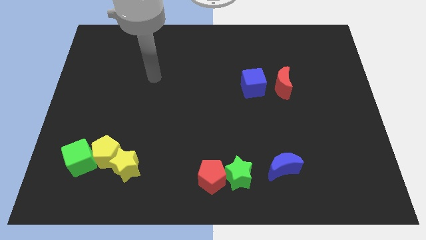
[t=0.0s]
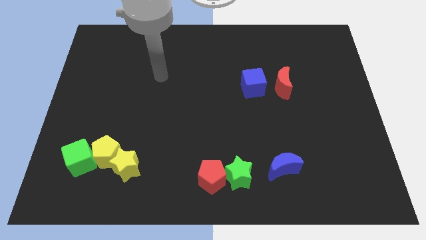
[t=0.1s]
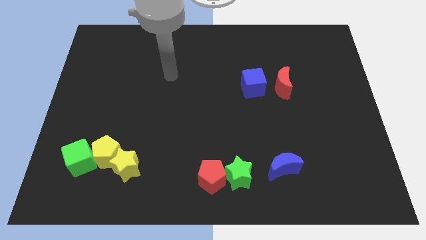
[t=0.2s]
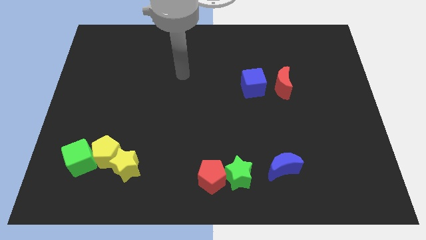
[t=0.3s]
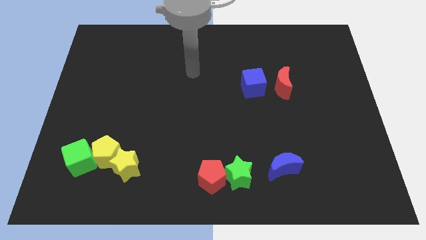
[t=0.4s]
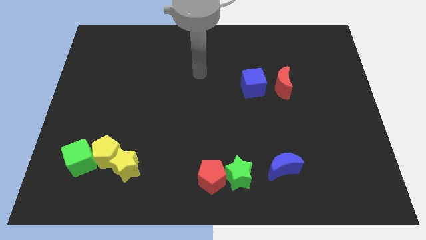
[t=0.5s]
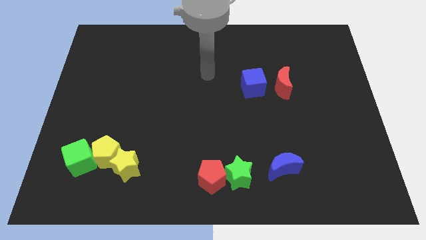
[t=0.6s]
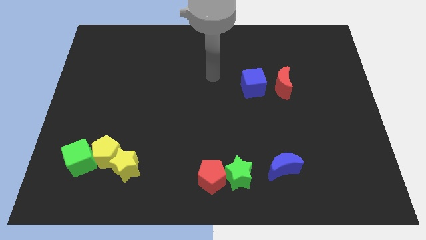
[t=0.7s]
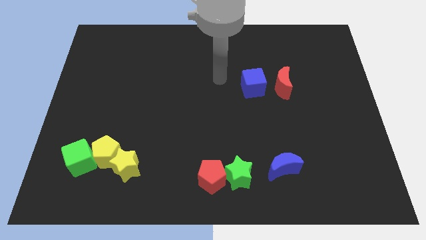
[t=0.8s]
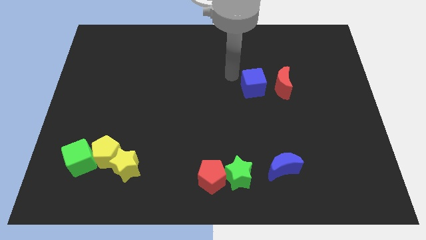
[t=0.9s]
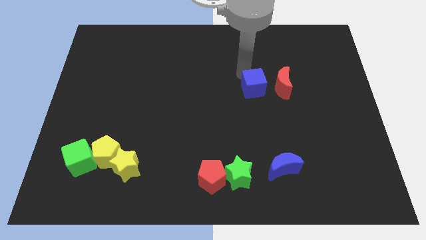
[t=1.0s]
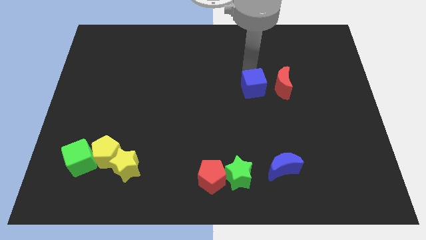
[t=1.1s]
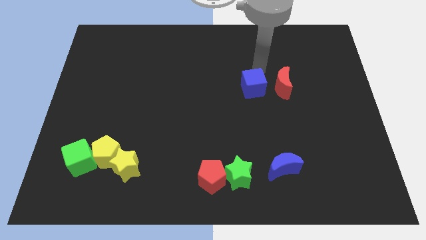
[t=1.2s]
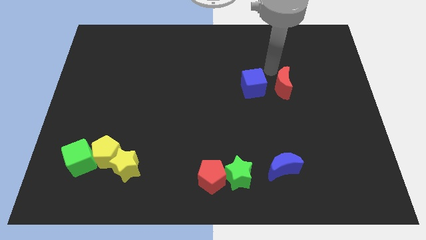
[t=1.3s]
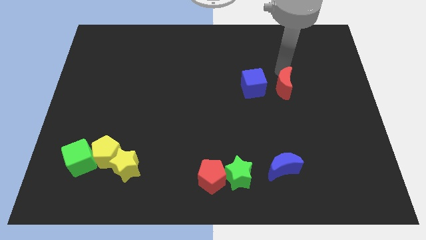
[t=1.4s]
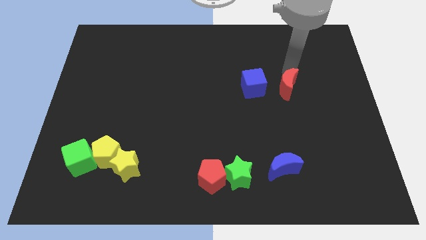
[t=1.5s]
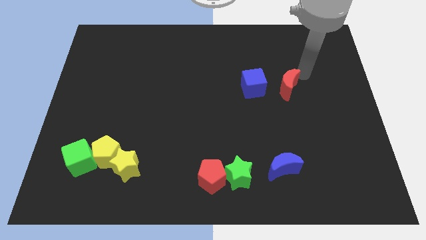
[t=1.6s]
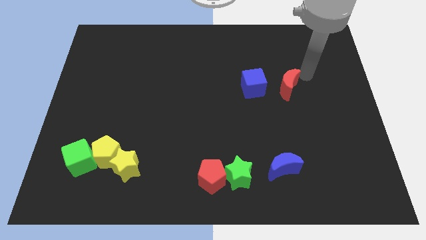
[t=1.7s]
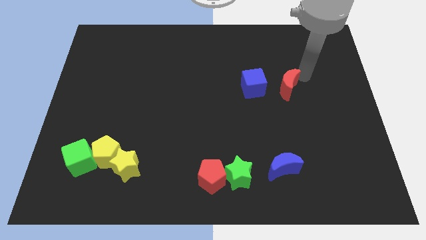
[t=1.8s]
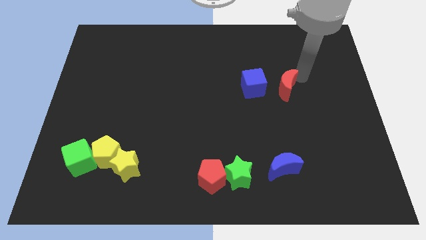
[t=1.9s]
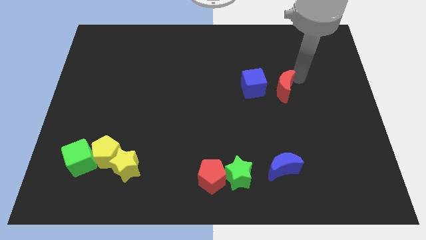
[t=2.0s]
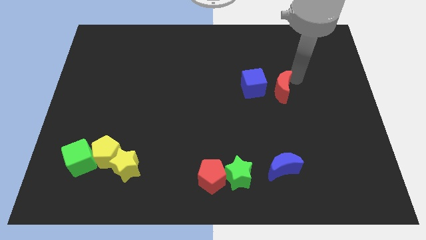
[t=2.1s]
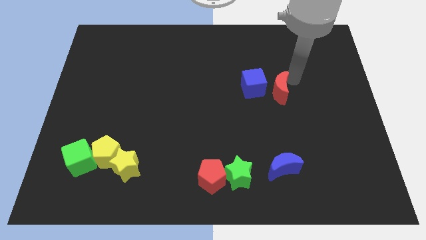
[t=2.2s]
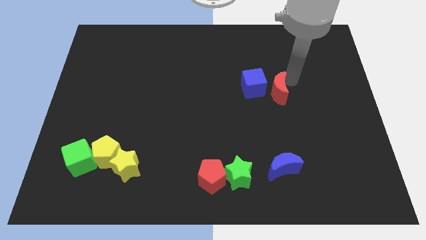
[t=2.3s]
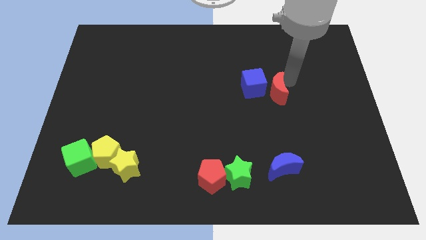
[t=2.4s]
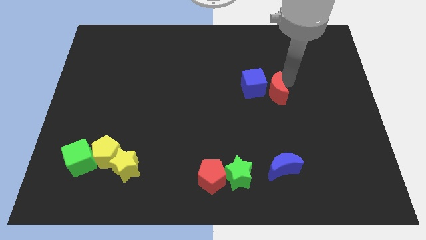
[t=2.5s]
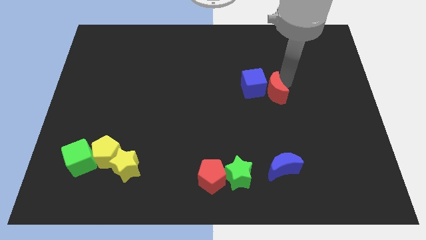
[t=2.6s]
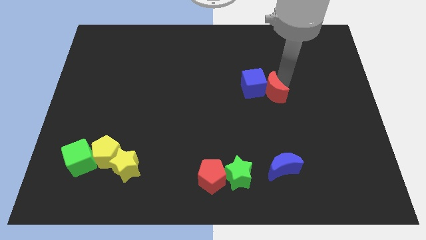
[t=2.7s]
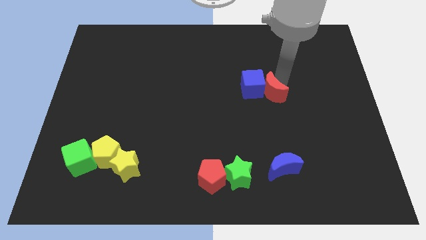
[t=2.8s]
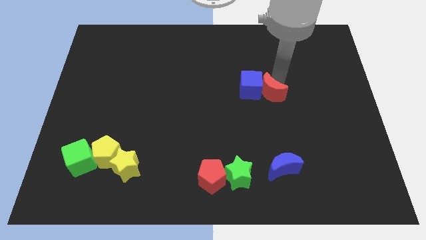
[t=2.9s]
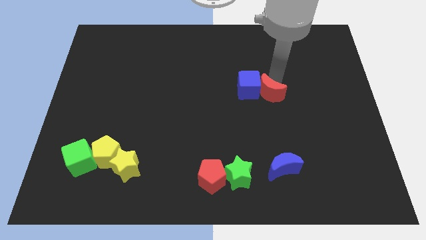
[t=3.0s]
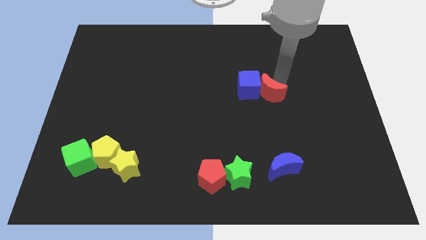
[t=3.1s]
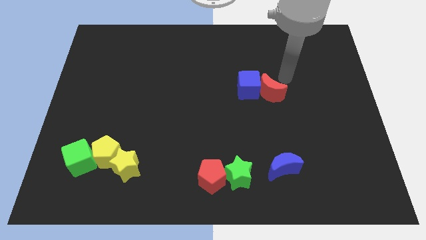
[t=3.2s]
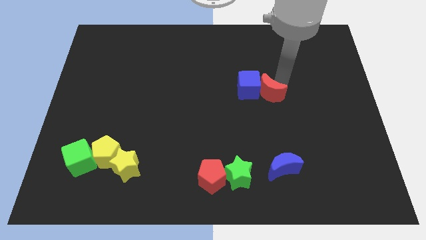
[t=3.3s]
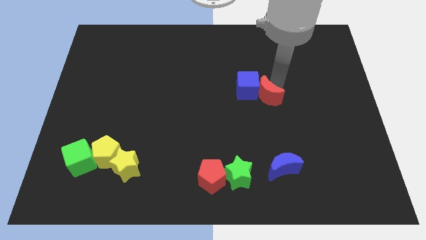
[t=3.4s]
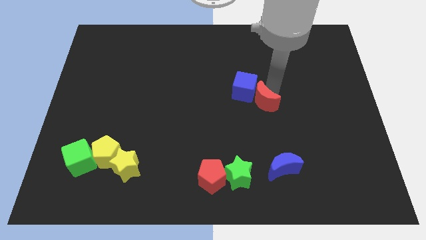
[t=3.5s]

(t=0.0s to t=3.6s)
push the red moon a little bit downwards and then to the left

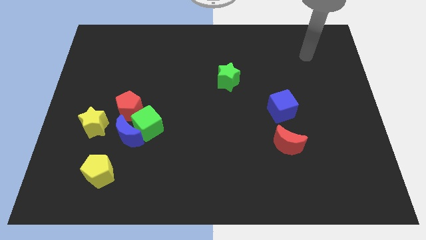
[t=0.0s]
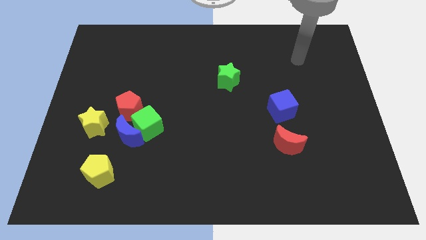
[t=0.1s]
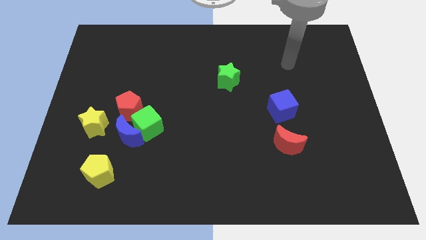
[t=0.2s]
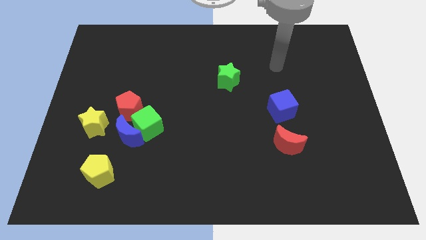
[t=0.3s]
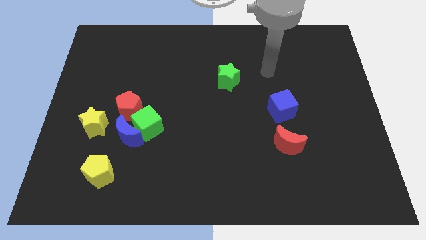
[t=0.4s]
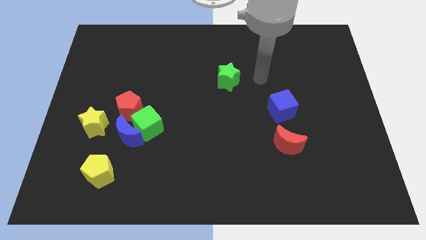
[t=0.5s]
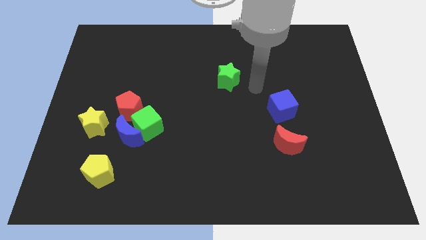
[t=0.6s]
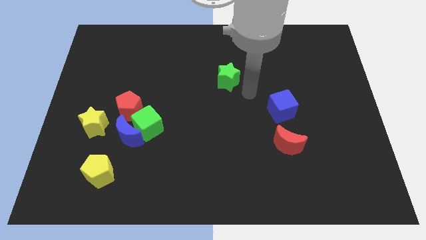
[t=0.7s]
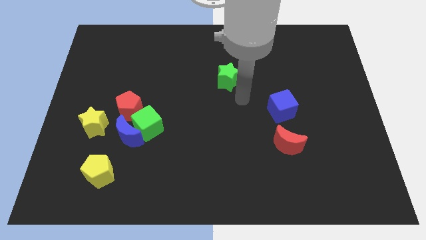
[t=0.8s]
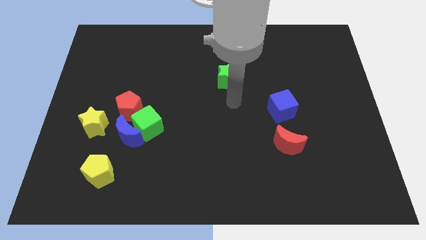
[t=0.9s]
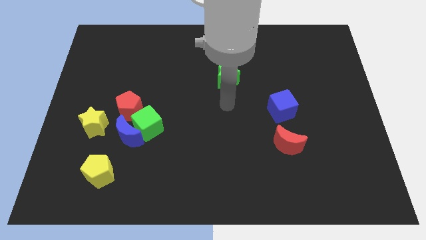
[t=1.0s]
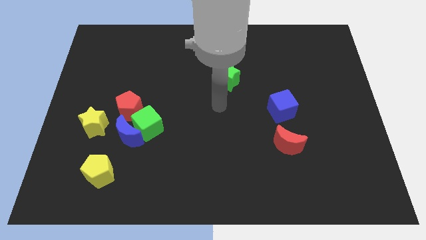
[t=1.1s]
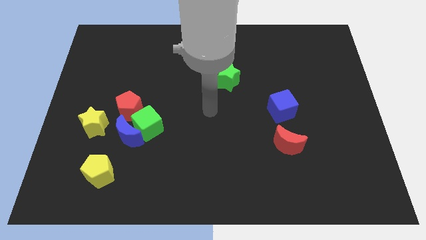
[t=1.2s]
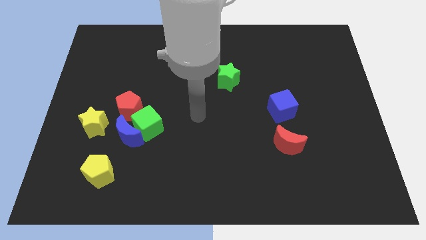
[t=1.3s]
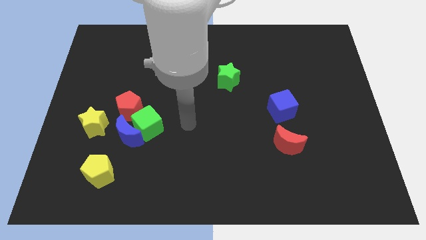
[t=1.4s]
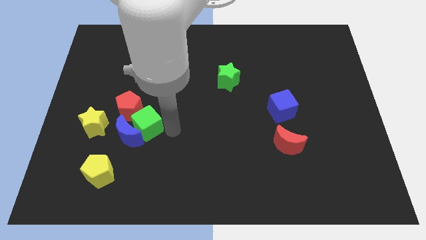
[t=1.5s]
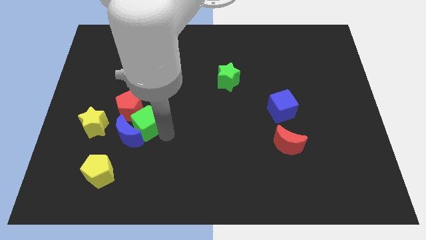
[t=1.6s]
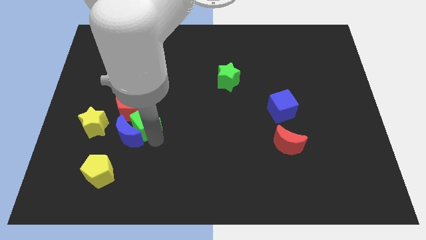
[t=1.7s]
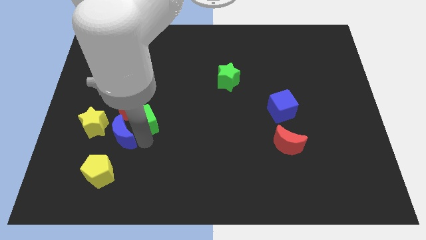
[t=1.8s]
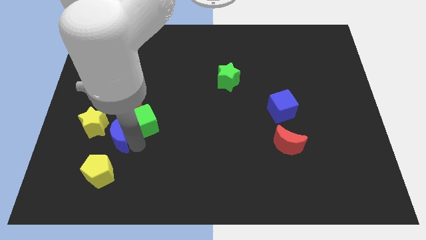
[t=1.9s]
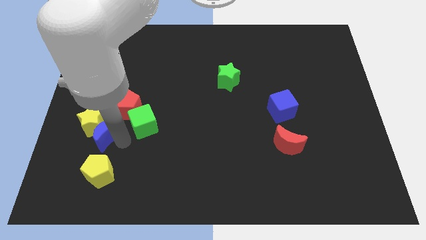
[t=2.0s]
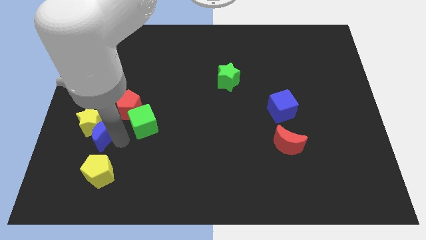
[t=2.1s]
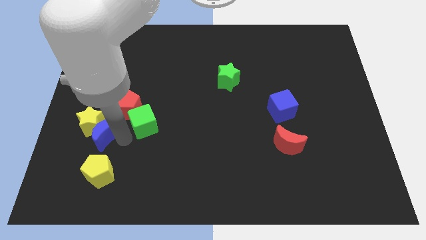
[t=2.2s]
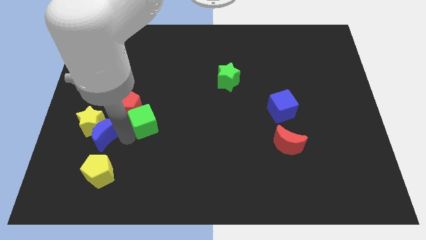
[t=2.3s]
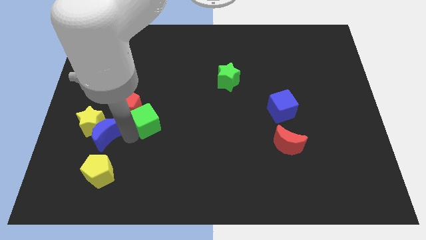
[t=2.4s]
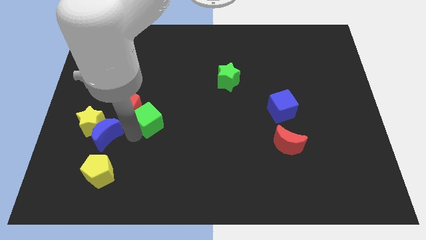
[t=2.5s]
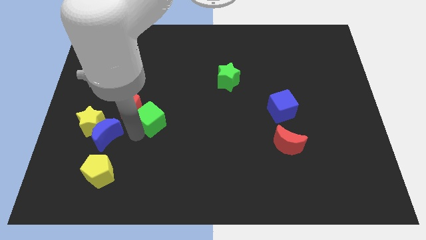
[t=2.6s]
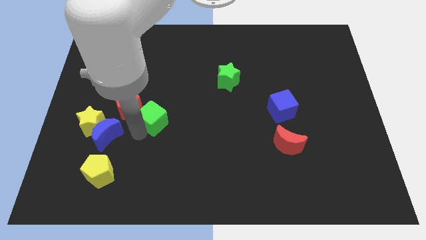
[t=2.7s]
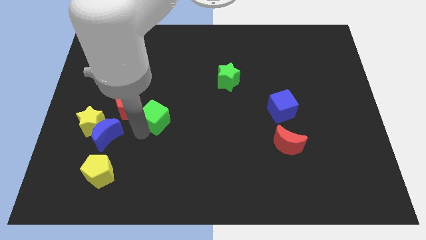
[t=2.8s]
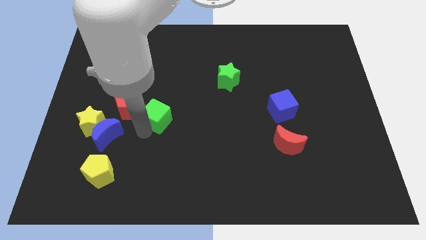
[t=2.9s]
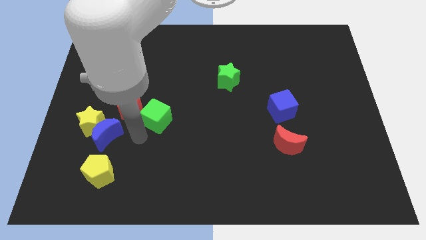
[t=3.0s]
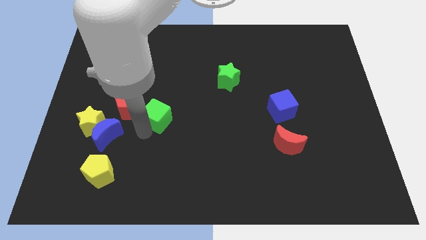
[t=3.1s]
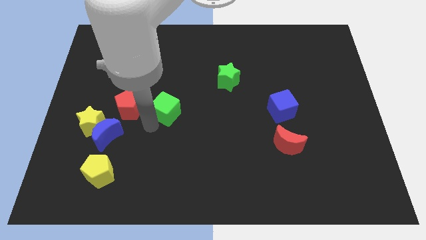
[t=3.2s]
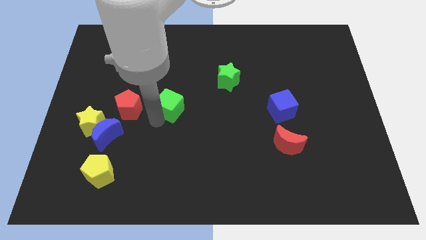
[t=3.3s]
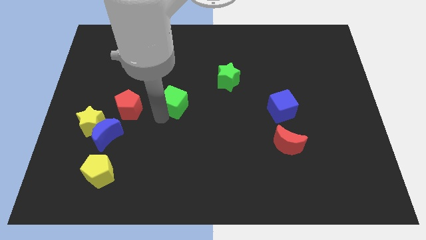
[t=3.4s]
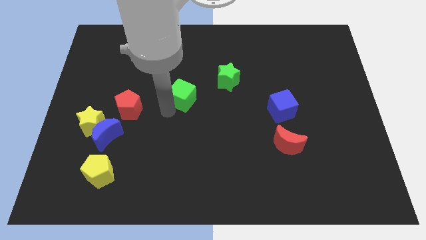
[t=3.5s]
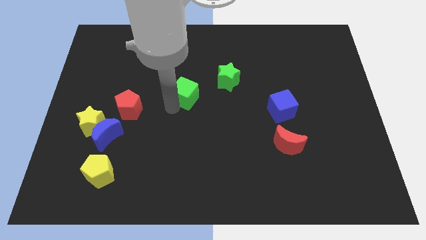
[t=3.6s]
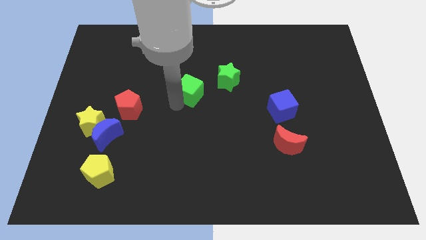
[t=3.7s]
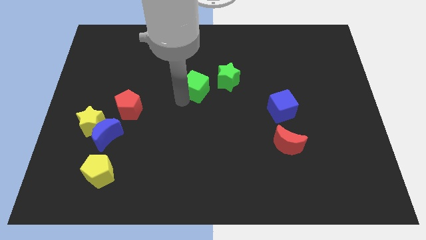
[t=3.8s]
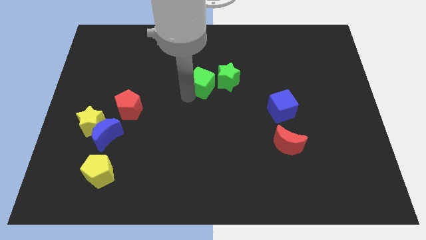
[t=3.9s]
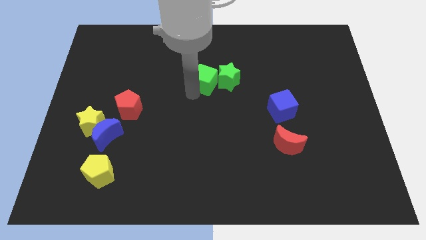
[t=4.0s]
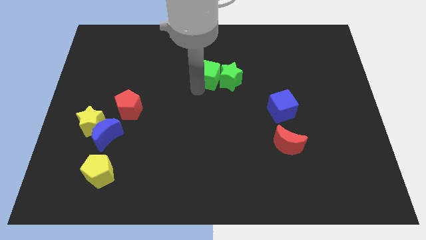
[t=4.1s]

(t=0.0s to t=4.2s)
slide the green cube up and to the right

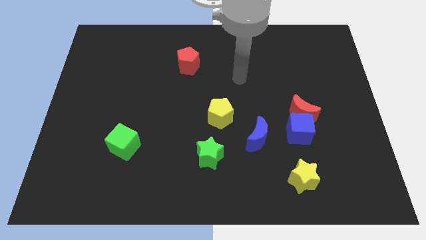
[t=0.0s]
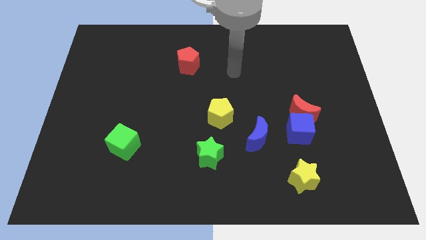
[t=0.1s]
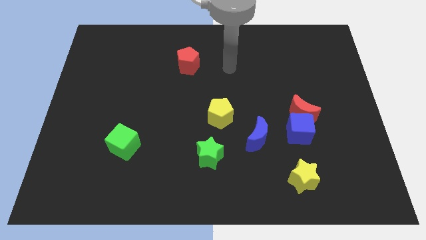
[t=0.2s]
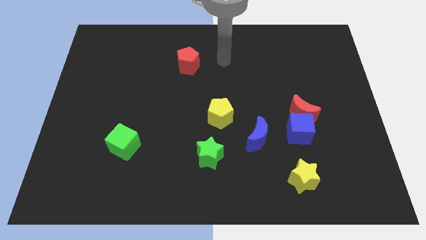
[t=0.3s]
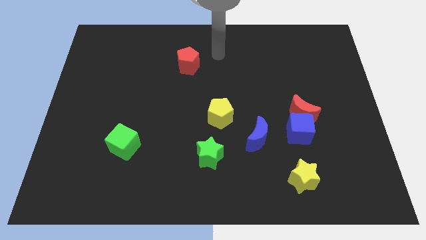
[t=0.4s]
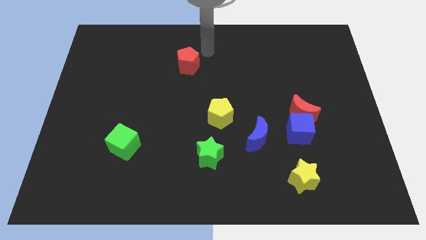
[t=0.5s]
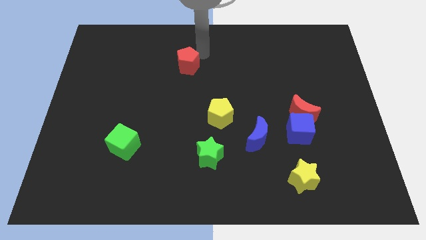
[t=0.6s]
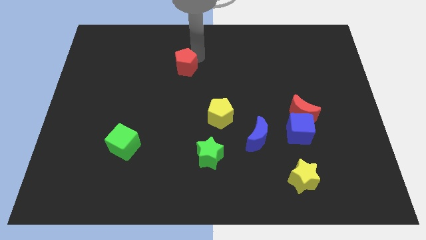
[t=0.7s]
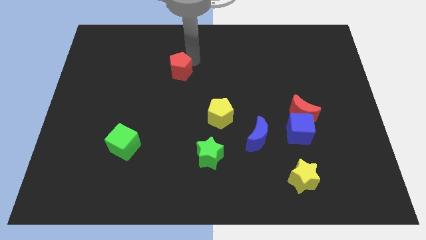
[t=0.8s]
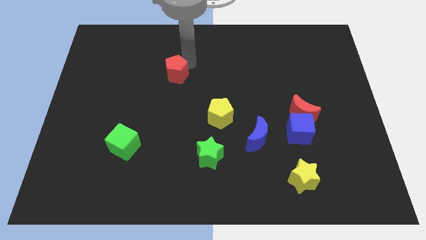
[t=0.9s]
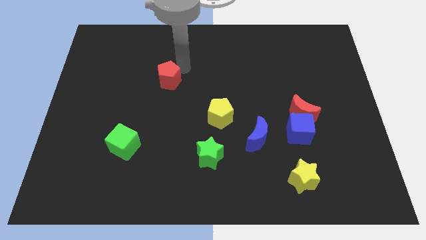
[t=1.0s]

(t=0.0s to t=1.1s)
move the red pentagon downwards and then to the left a little bit
